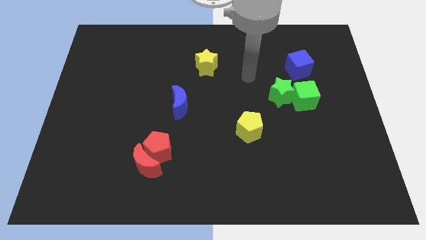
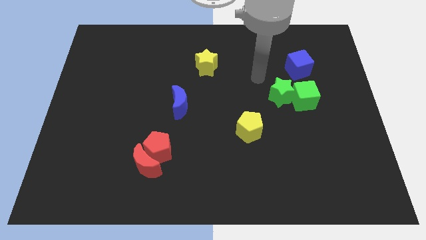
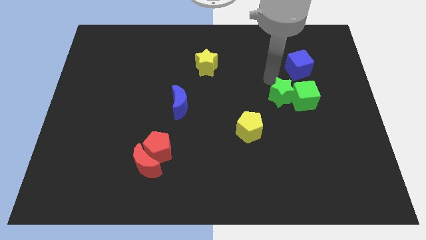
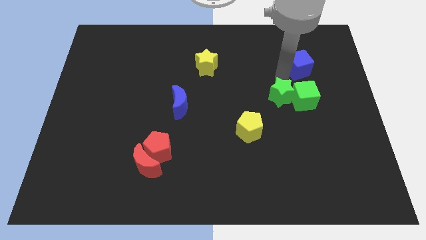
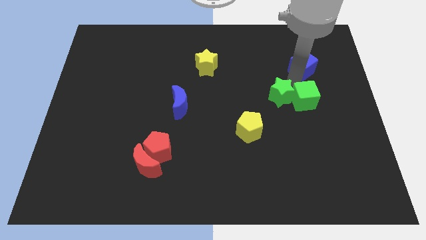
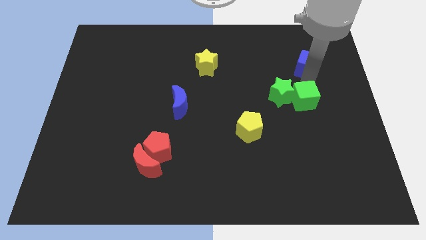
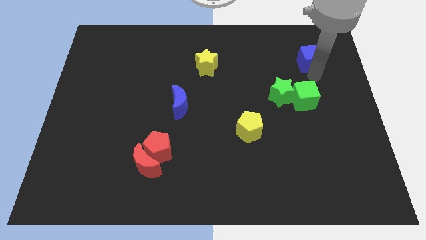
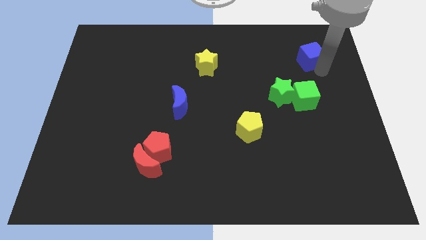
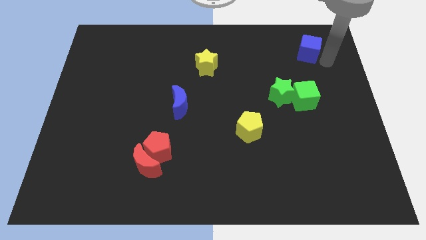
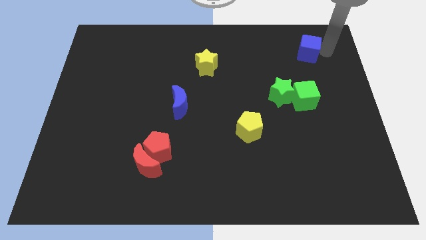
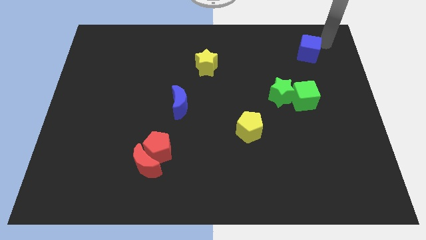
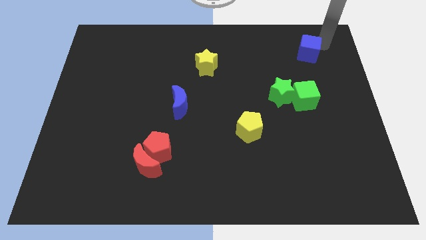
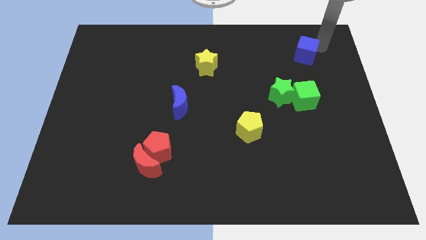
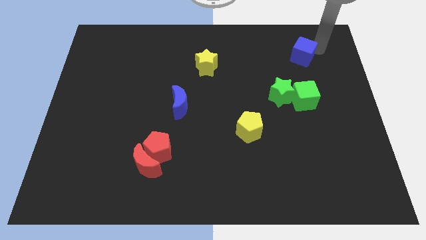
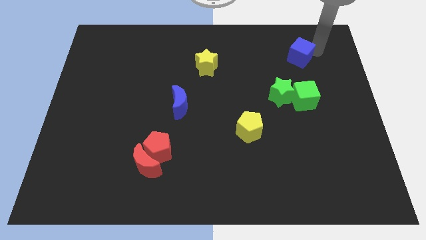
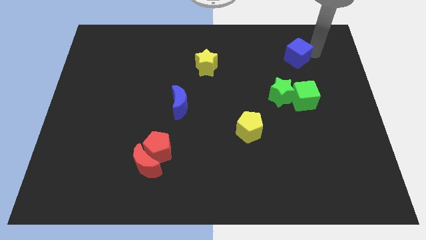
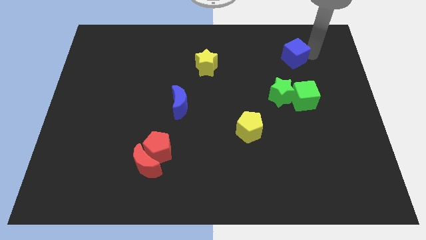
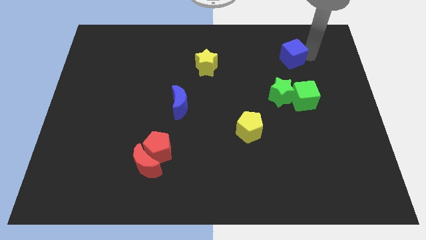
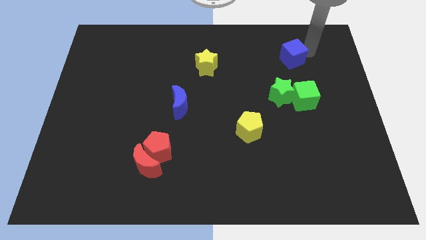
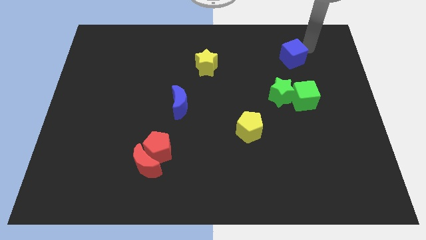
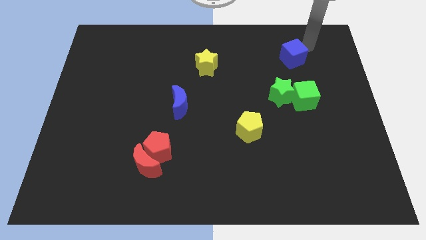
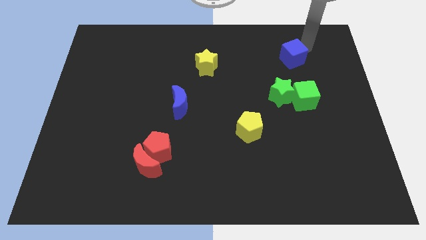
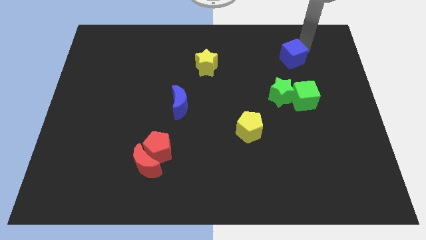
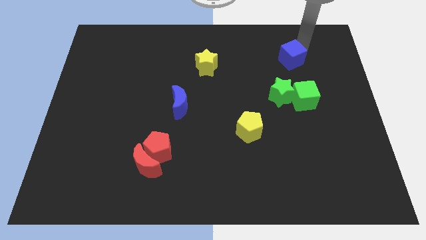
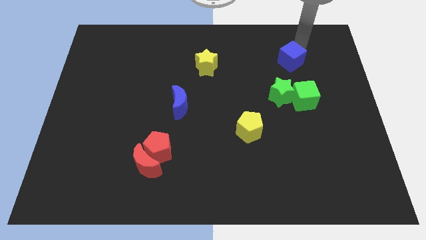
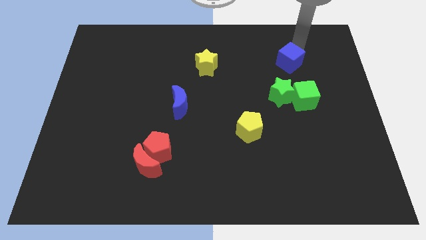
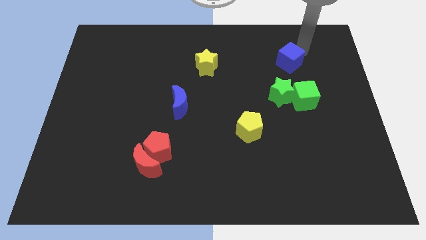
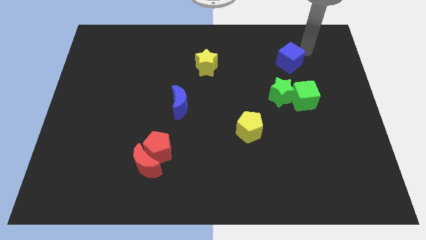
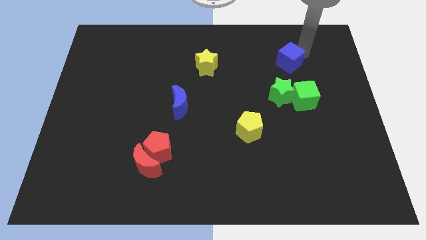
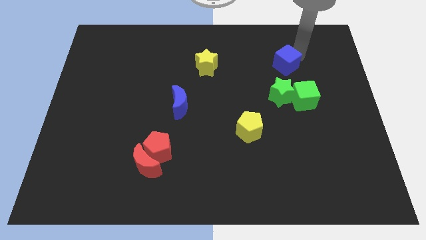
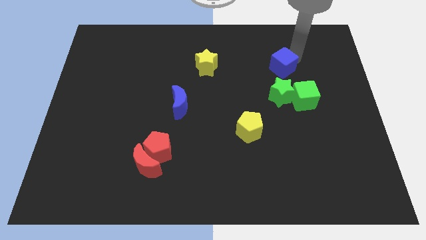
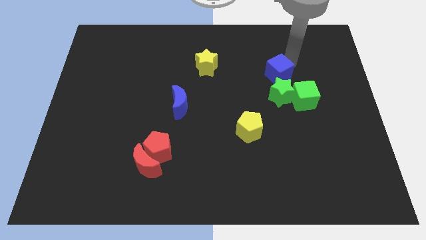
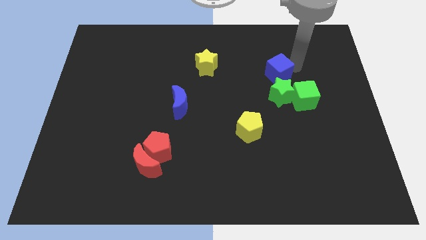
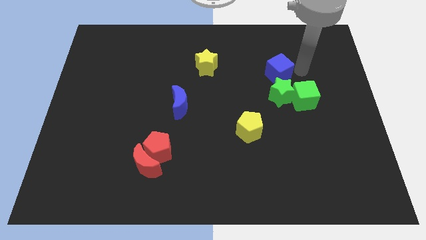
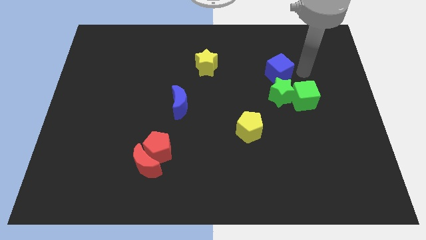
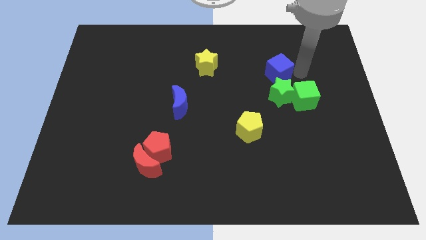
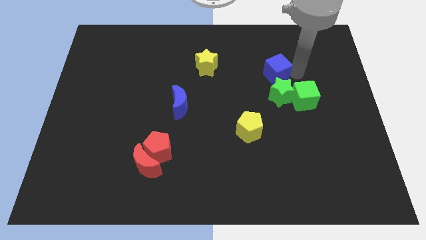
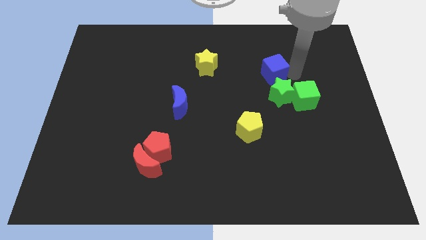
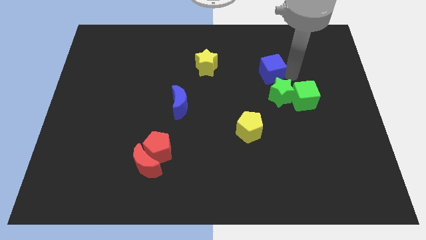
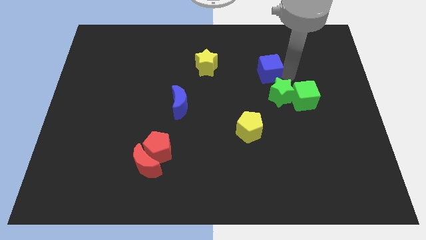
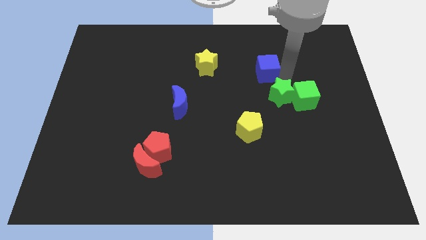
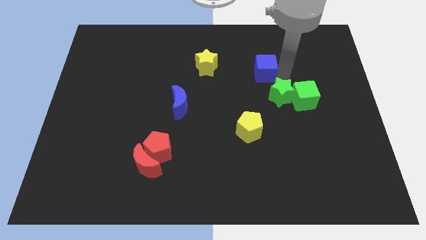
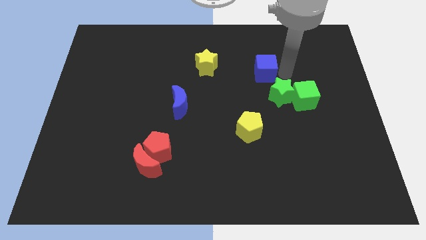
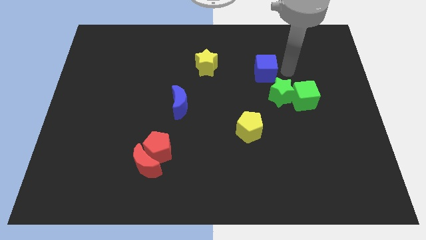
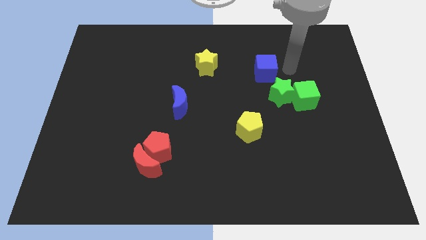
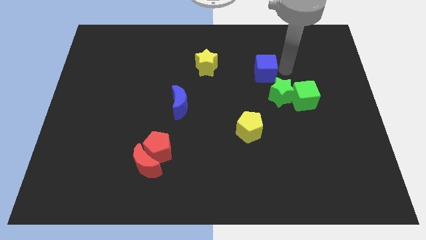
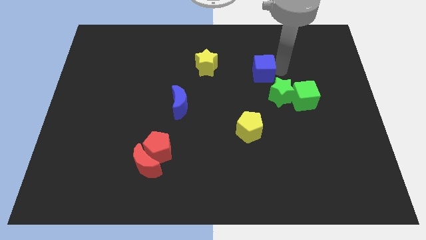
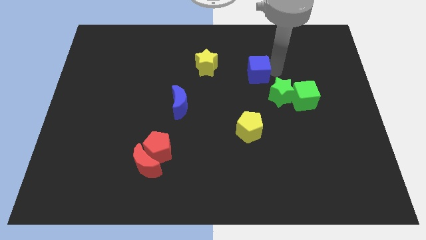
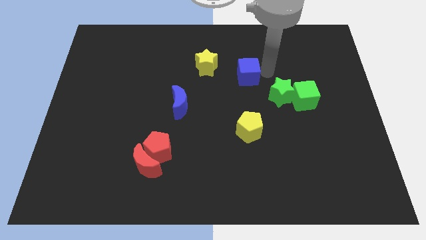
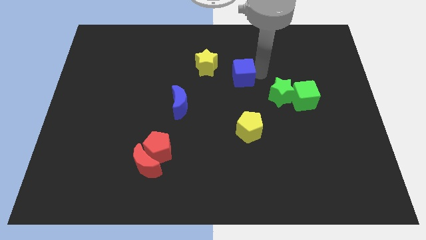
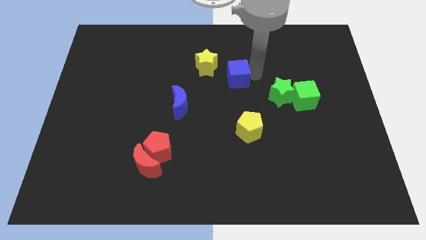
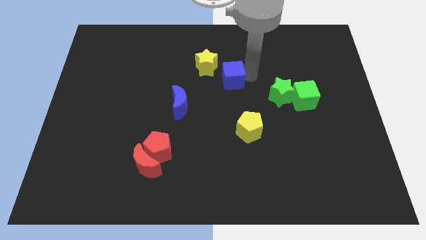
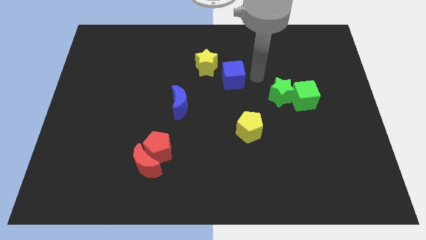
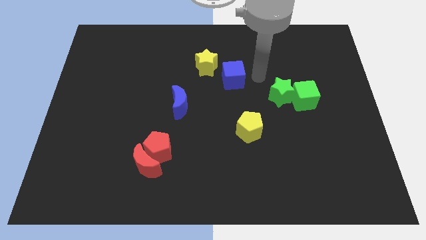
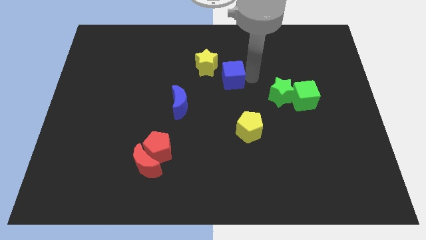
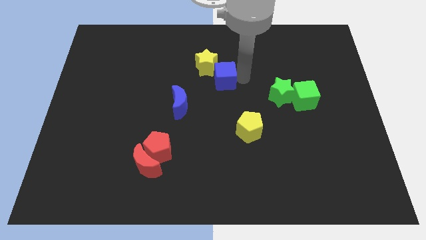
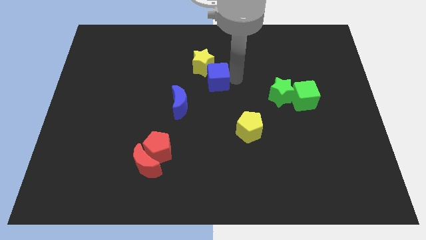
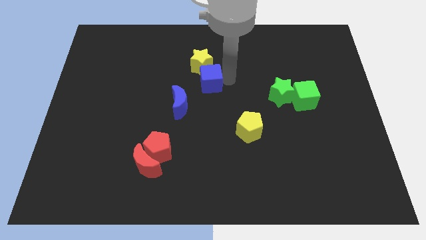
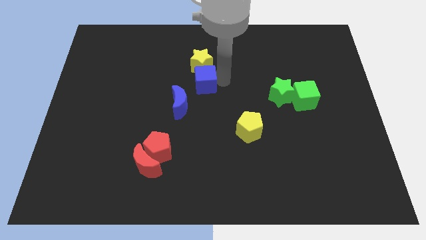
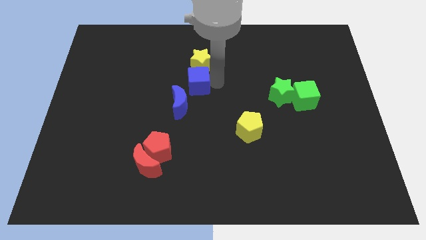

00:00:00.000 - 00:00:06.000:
put the blue cube above the blue moon
